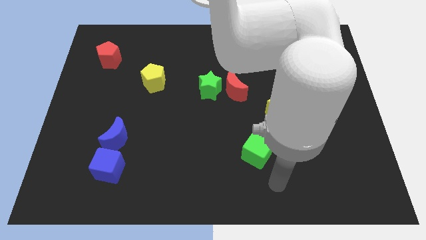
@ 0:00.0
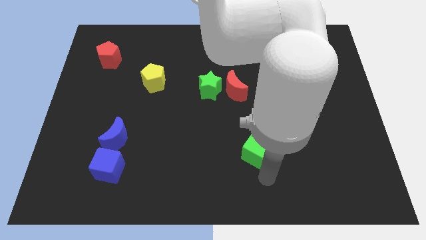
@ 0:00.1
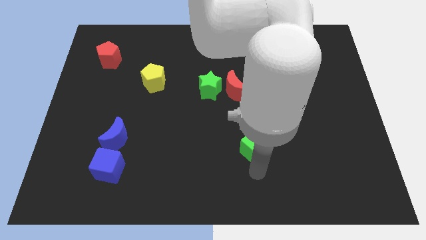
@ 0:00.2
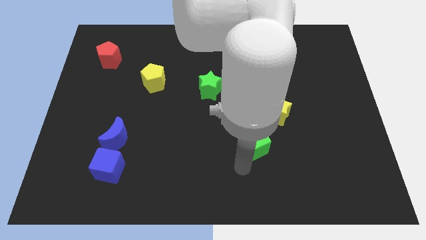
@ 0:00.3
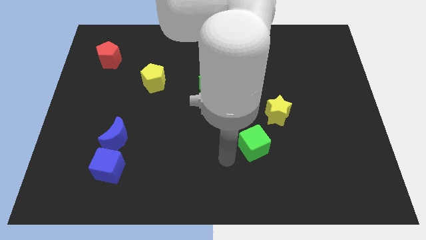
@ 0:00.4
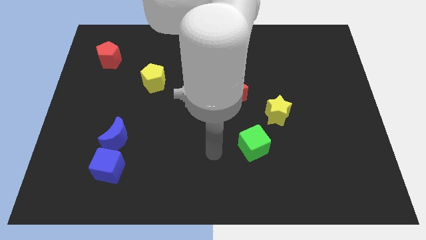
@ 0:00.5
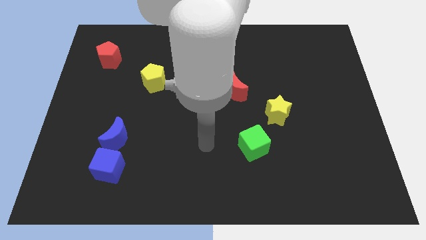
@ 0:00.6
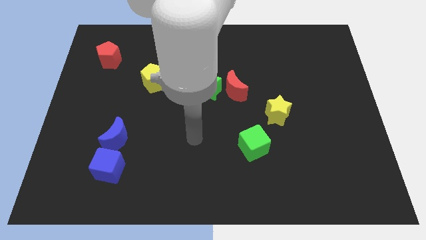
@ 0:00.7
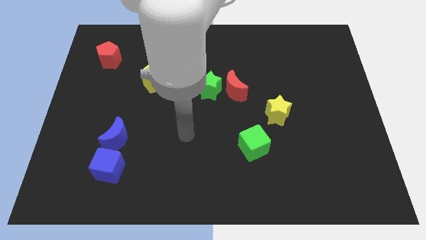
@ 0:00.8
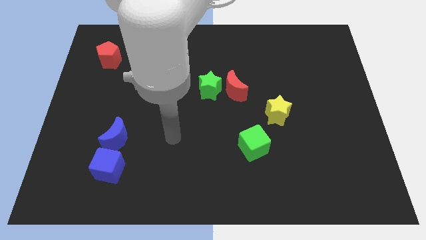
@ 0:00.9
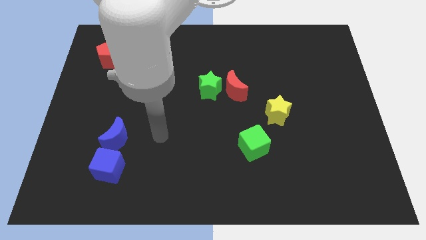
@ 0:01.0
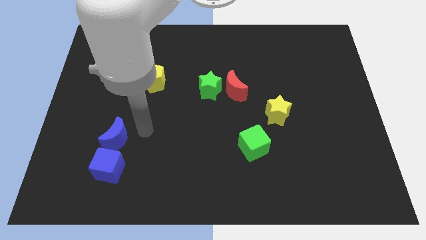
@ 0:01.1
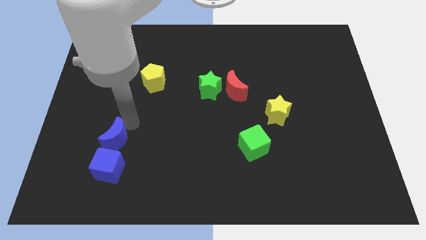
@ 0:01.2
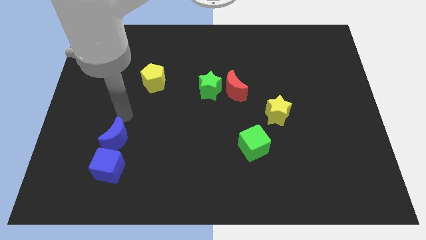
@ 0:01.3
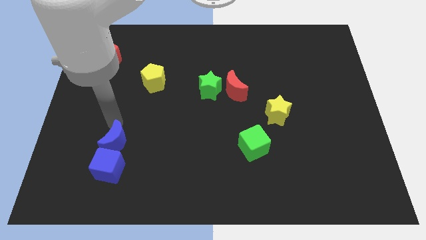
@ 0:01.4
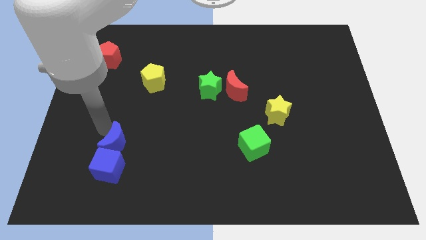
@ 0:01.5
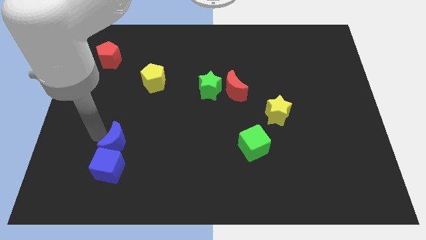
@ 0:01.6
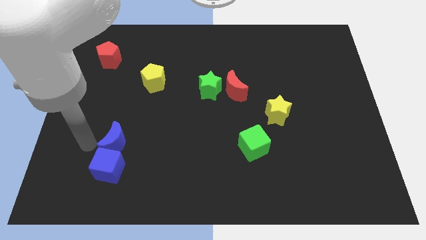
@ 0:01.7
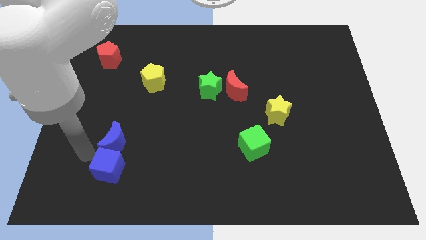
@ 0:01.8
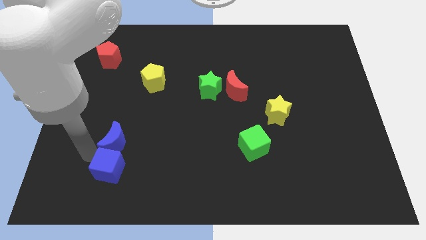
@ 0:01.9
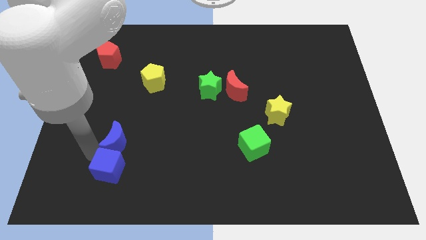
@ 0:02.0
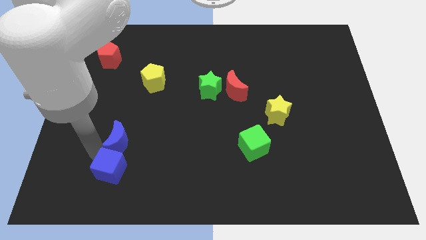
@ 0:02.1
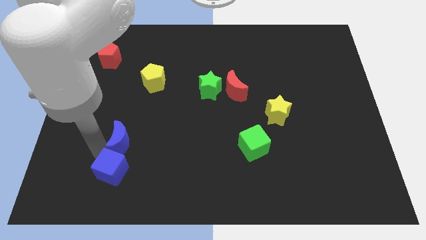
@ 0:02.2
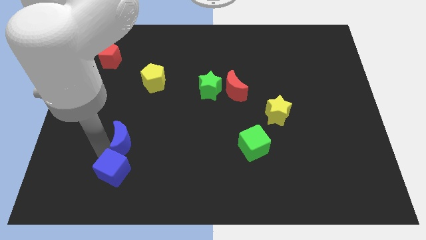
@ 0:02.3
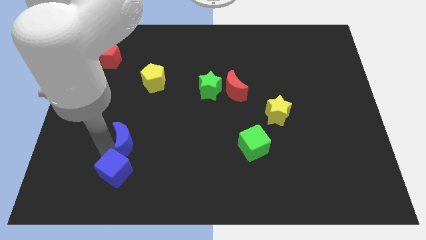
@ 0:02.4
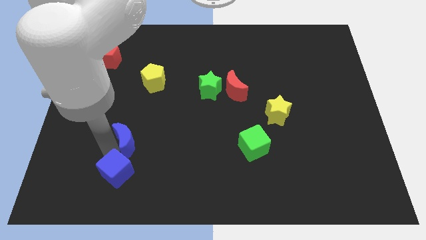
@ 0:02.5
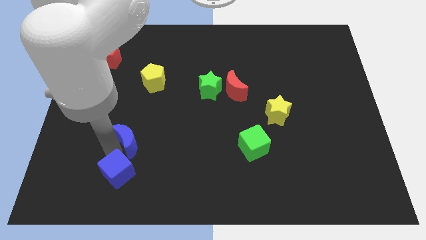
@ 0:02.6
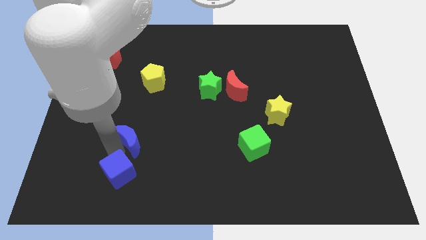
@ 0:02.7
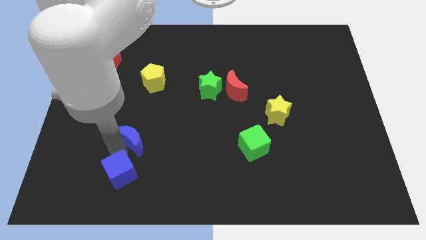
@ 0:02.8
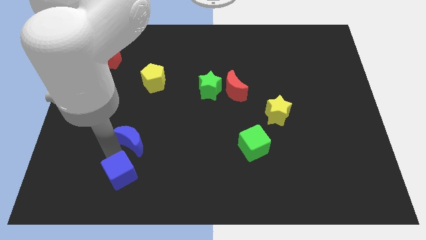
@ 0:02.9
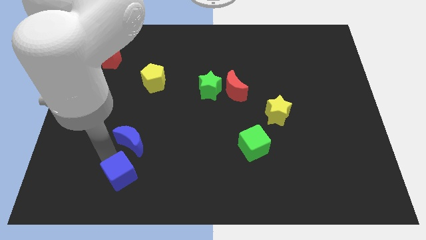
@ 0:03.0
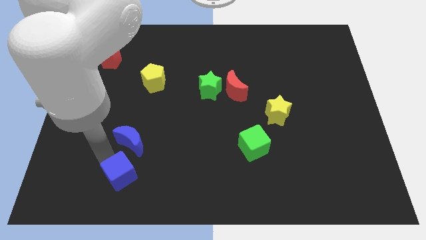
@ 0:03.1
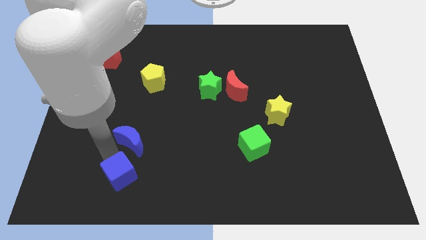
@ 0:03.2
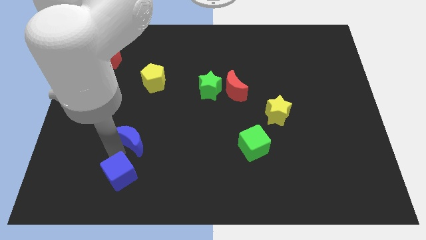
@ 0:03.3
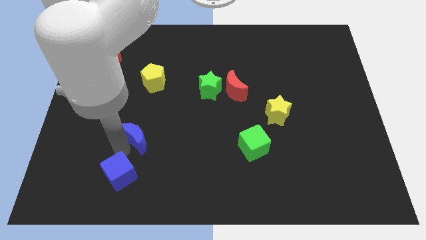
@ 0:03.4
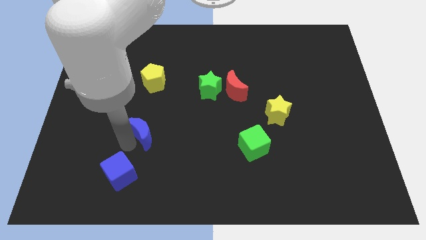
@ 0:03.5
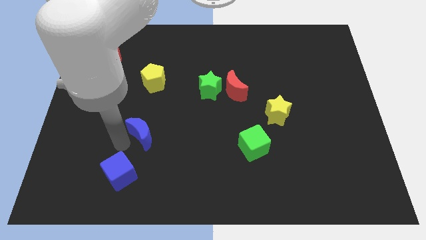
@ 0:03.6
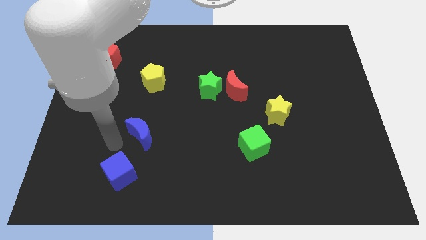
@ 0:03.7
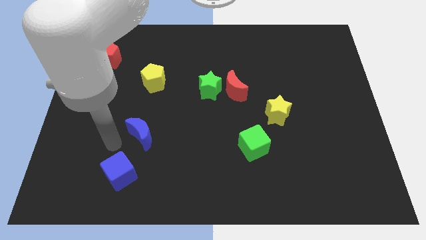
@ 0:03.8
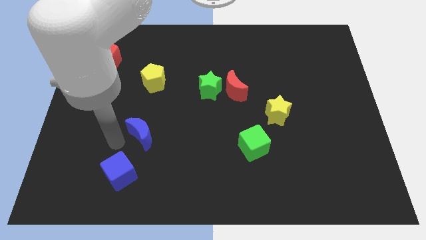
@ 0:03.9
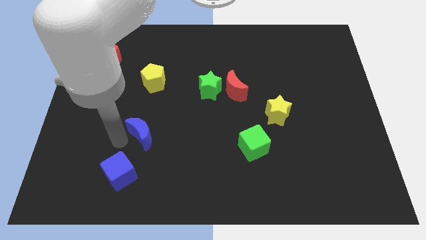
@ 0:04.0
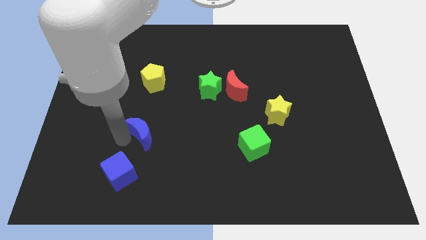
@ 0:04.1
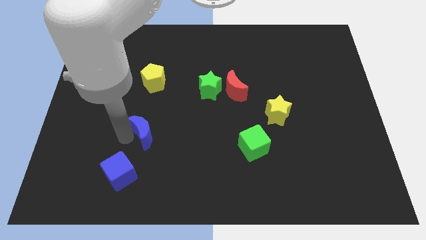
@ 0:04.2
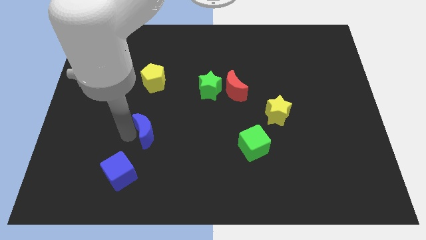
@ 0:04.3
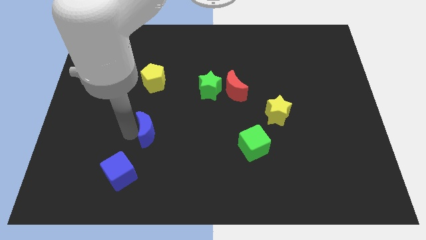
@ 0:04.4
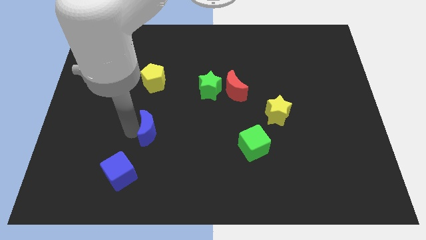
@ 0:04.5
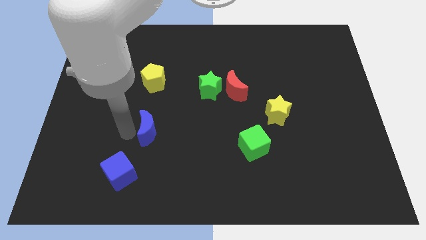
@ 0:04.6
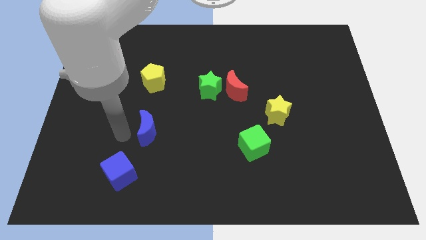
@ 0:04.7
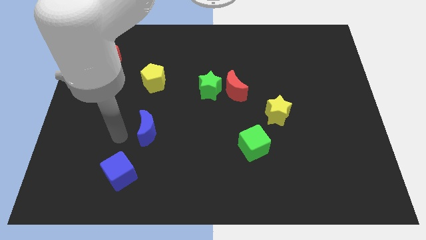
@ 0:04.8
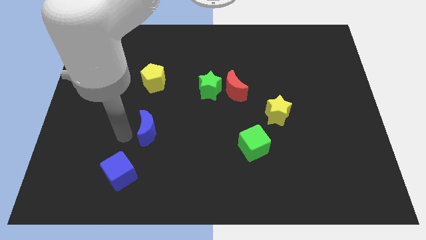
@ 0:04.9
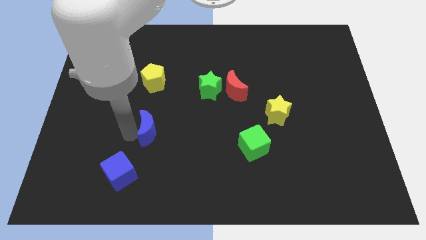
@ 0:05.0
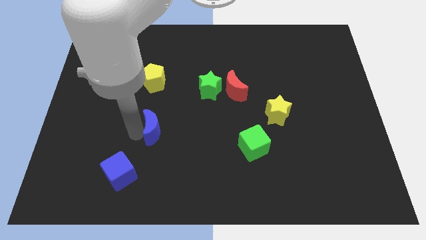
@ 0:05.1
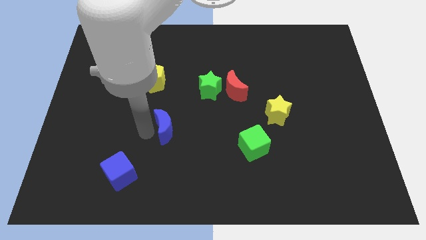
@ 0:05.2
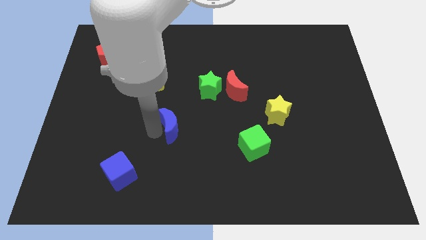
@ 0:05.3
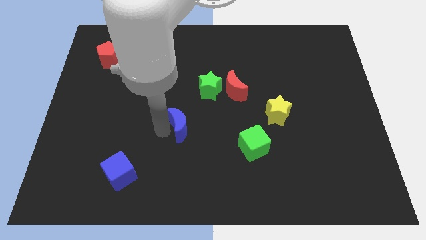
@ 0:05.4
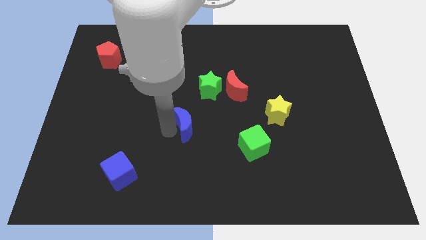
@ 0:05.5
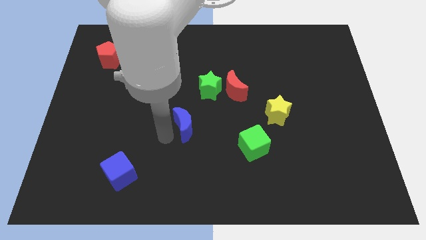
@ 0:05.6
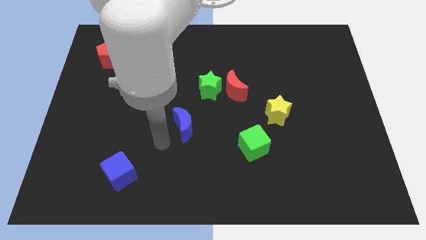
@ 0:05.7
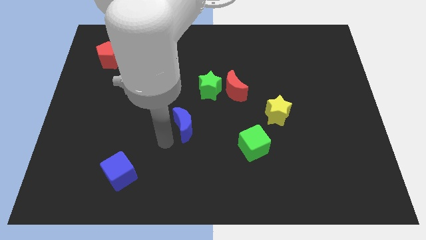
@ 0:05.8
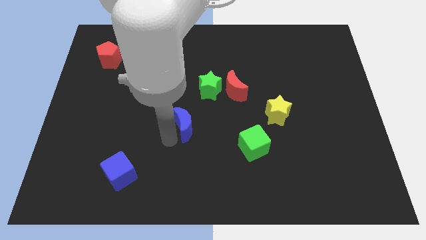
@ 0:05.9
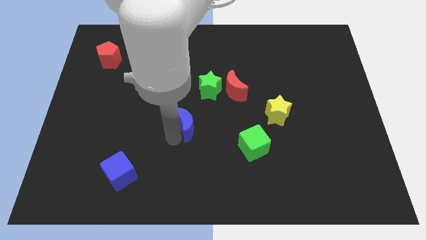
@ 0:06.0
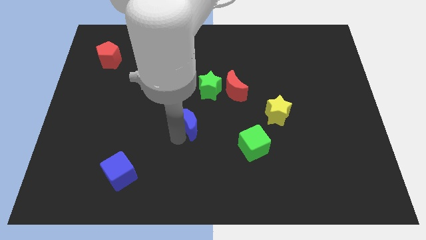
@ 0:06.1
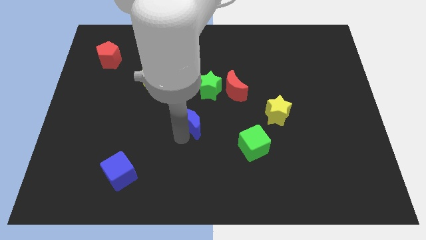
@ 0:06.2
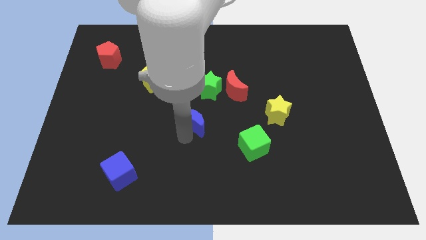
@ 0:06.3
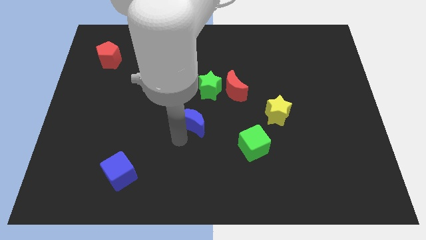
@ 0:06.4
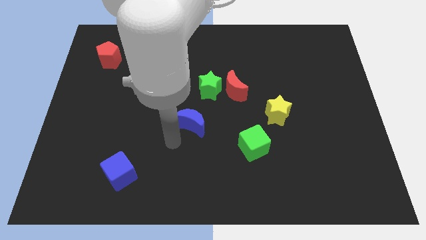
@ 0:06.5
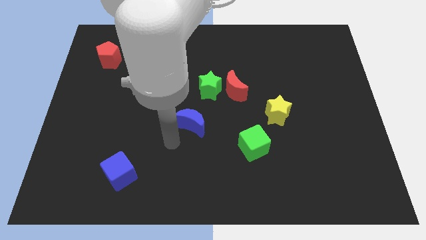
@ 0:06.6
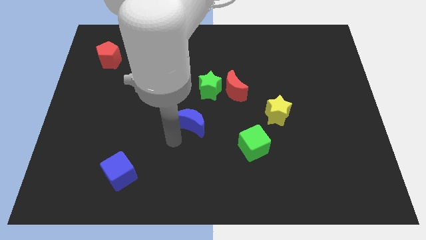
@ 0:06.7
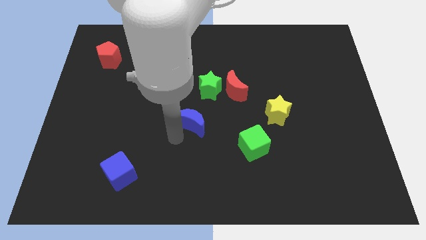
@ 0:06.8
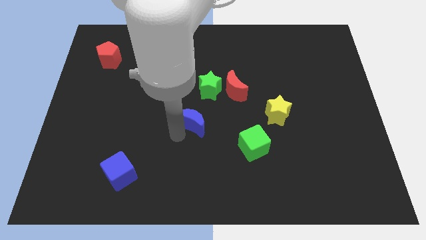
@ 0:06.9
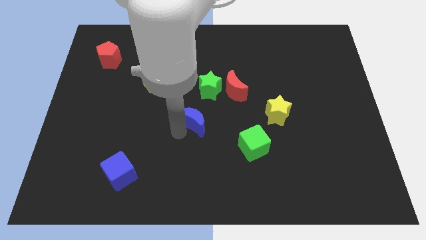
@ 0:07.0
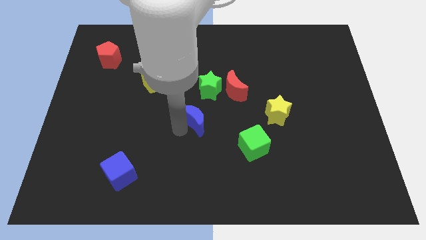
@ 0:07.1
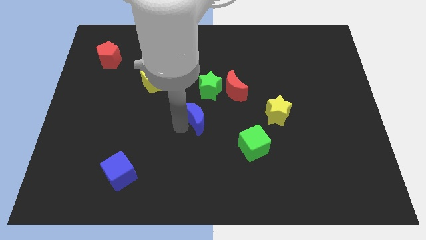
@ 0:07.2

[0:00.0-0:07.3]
move the blue moon diagonally down and to the left of the red moon
